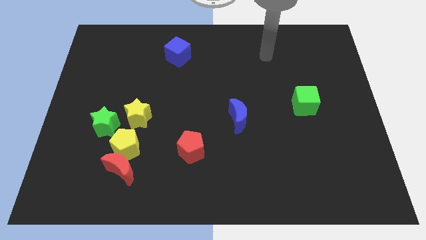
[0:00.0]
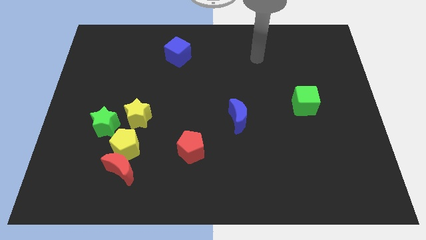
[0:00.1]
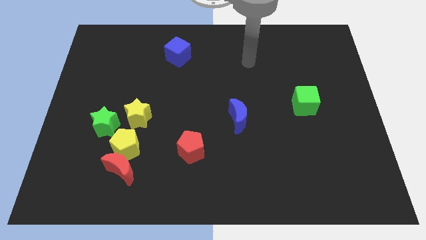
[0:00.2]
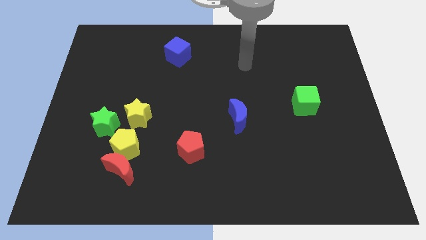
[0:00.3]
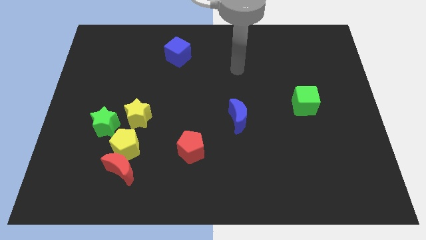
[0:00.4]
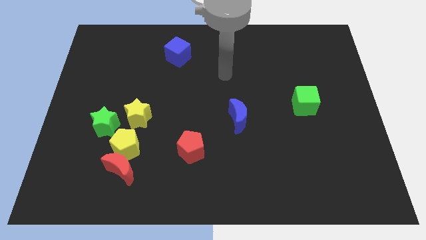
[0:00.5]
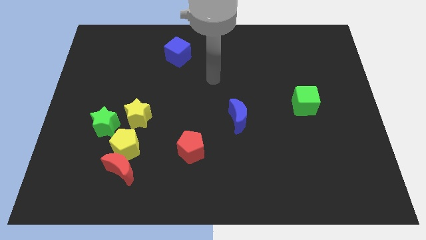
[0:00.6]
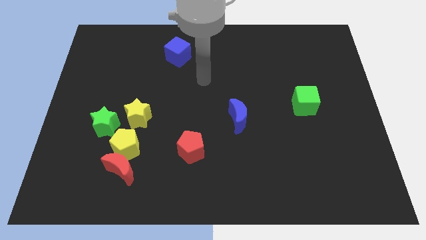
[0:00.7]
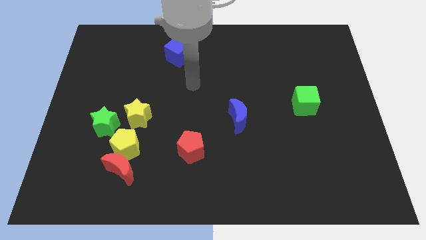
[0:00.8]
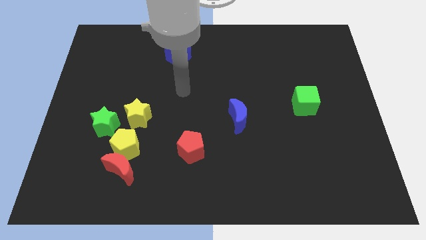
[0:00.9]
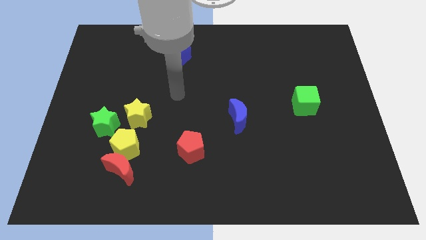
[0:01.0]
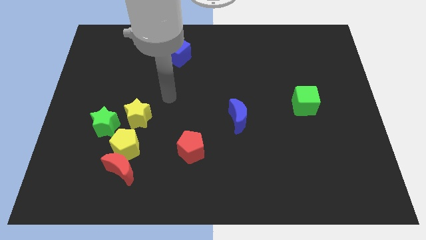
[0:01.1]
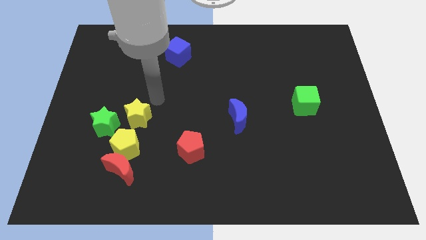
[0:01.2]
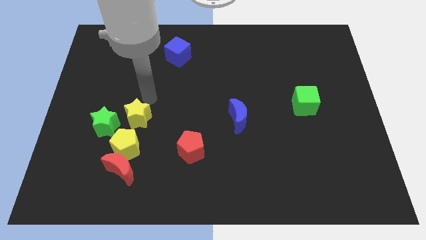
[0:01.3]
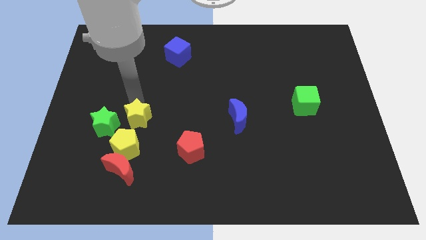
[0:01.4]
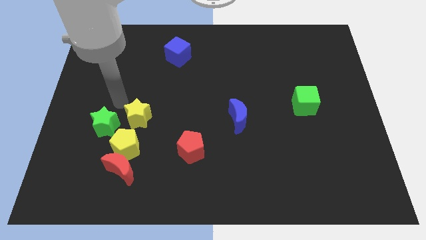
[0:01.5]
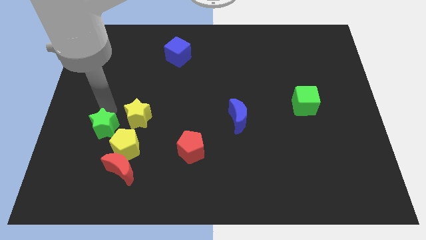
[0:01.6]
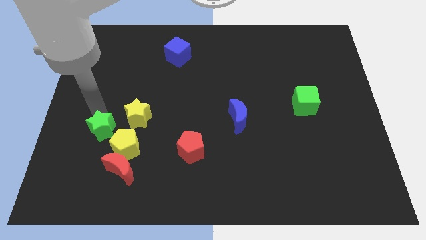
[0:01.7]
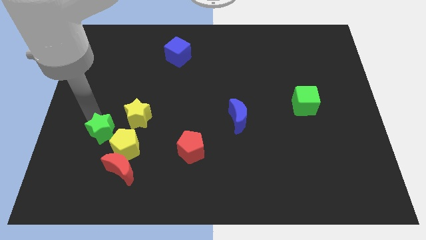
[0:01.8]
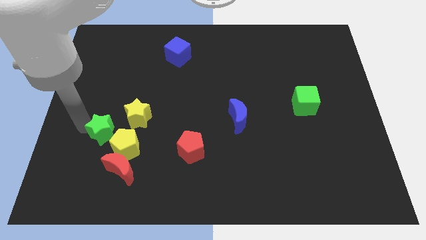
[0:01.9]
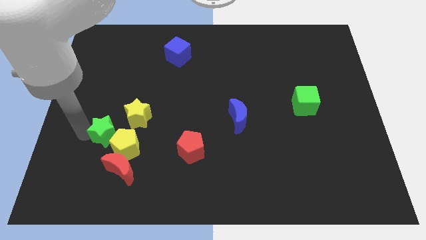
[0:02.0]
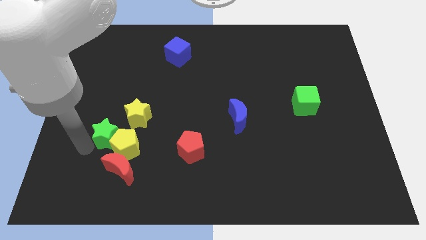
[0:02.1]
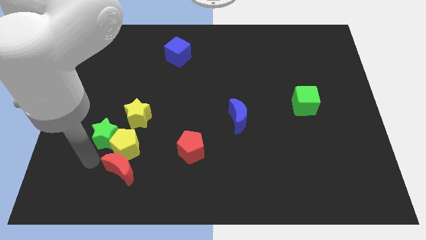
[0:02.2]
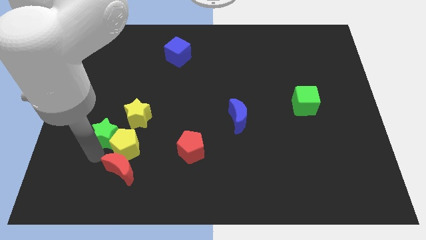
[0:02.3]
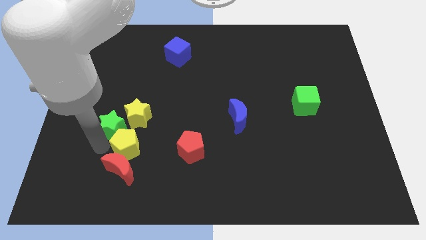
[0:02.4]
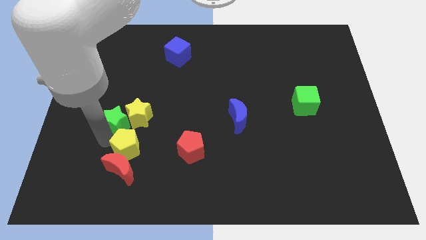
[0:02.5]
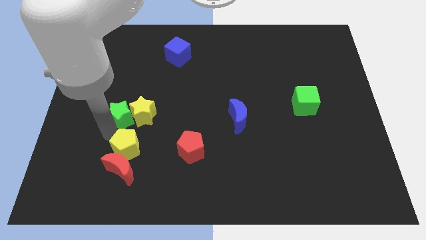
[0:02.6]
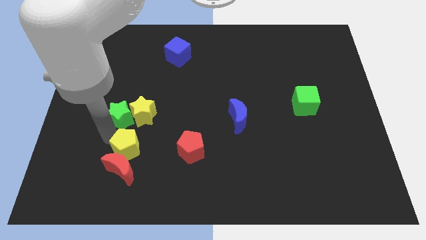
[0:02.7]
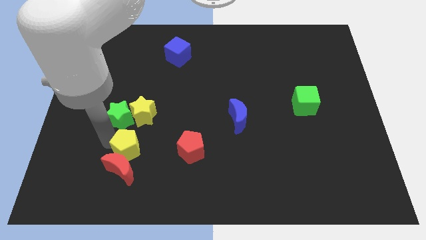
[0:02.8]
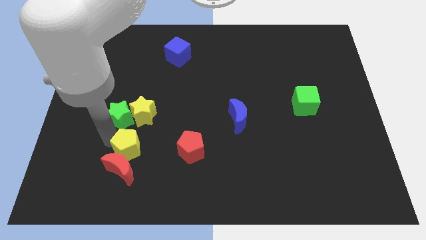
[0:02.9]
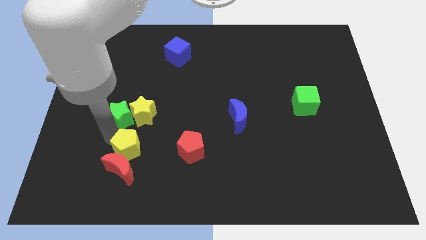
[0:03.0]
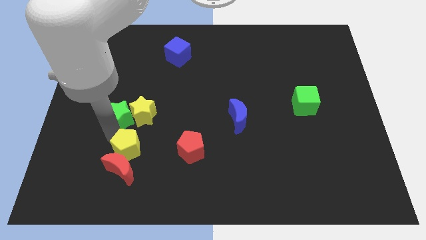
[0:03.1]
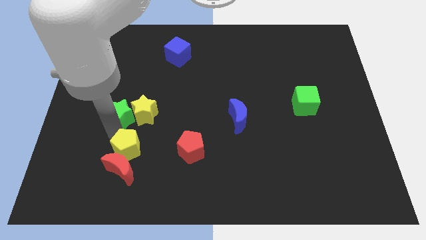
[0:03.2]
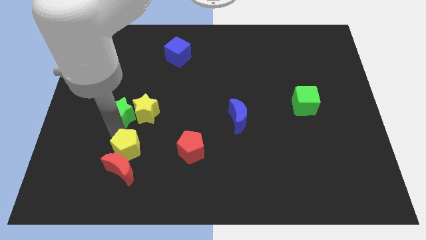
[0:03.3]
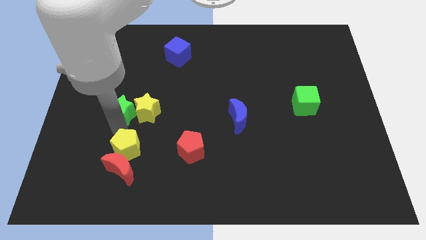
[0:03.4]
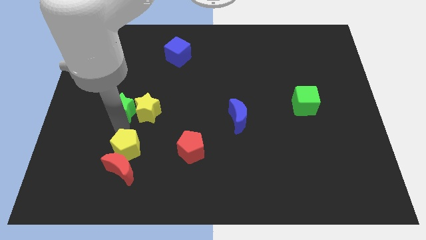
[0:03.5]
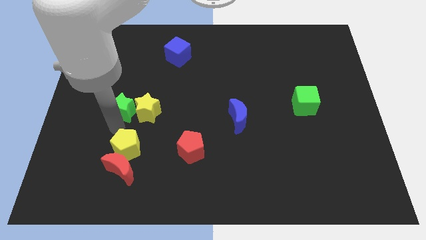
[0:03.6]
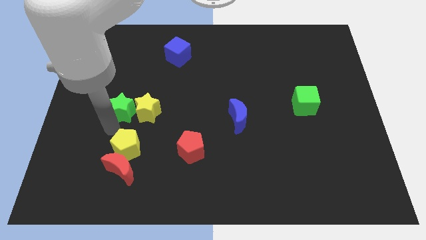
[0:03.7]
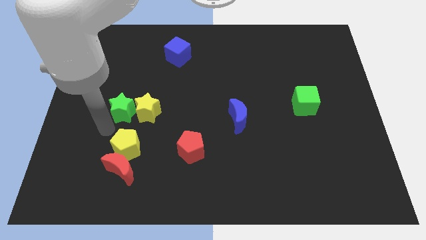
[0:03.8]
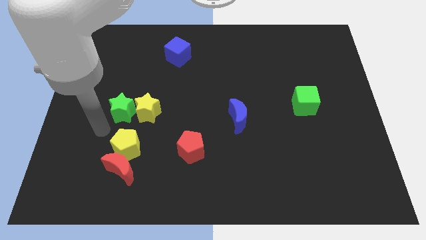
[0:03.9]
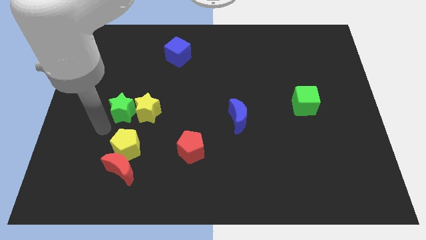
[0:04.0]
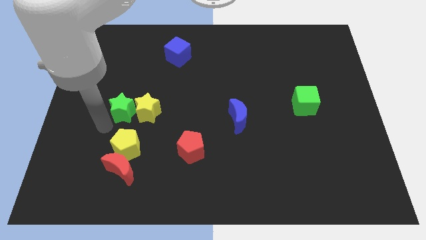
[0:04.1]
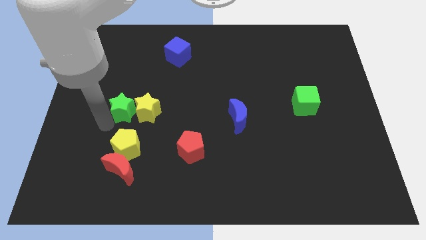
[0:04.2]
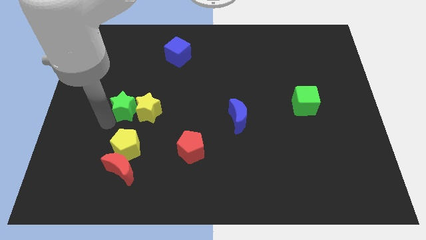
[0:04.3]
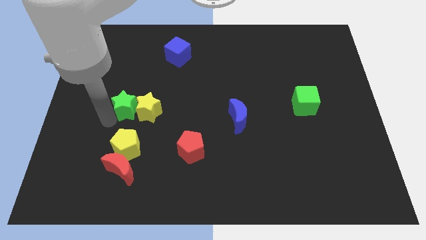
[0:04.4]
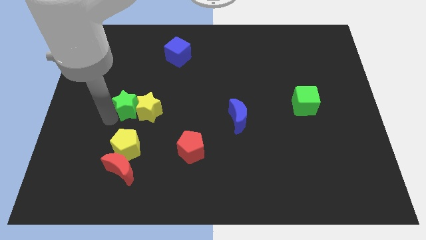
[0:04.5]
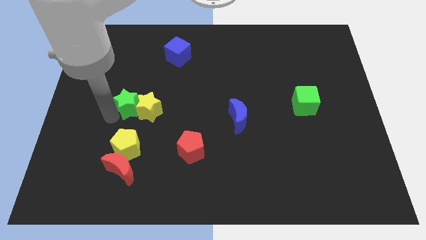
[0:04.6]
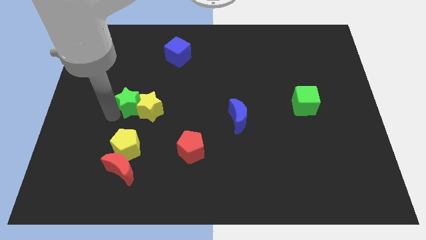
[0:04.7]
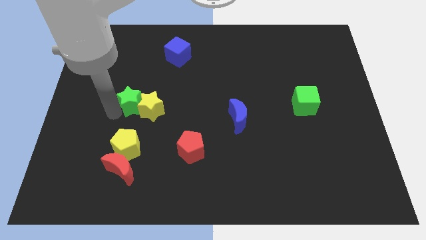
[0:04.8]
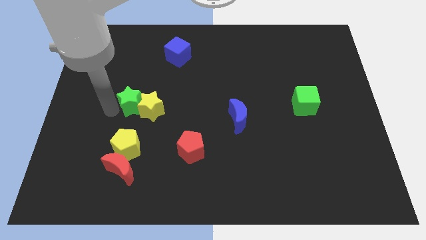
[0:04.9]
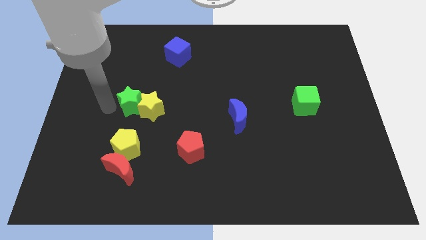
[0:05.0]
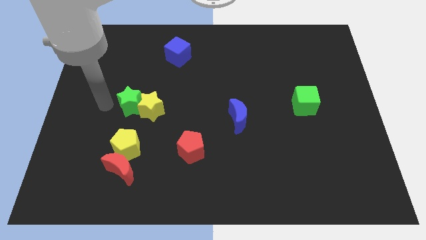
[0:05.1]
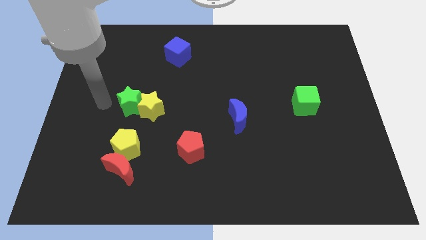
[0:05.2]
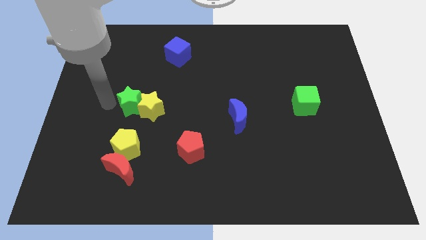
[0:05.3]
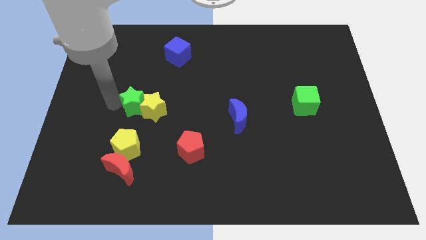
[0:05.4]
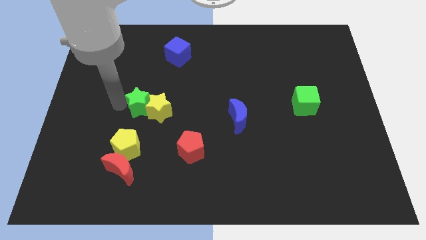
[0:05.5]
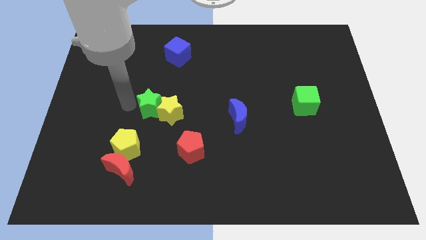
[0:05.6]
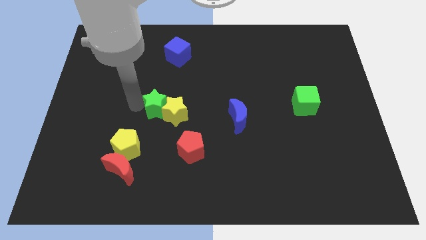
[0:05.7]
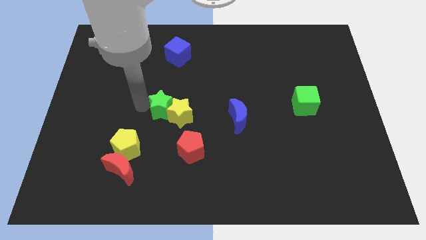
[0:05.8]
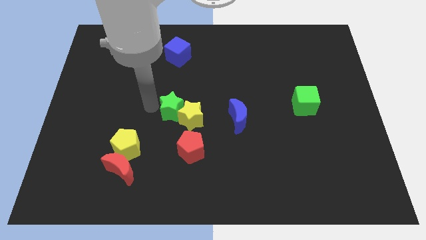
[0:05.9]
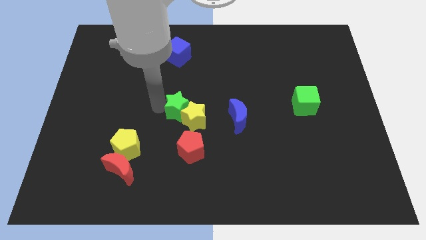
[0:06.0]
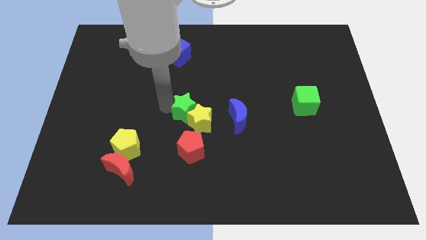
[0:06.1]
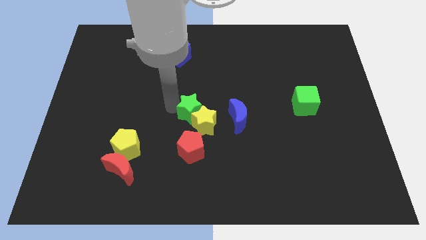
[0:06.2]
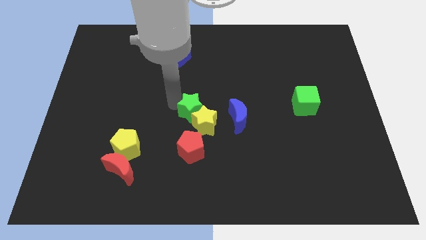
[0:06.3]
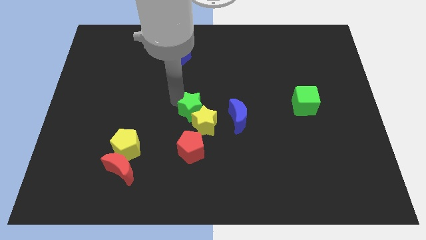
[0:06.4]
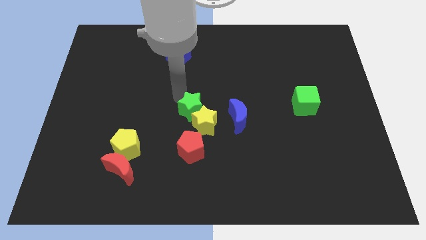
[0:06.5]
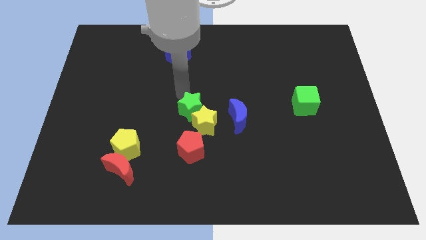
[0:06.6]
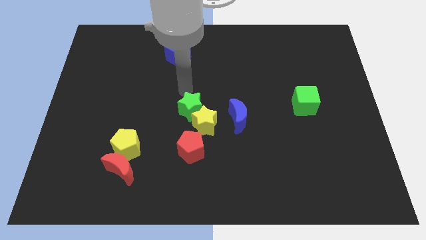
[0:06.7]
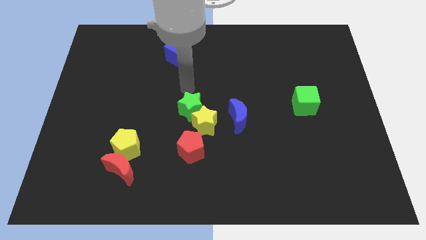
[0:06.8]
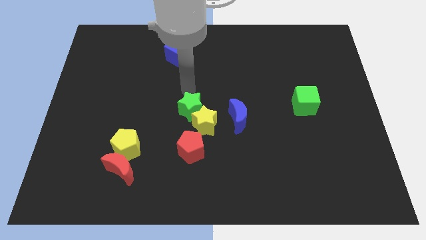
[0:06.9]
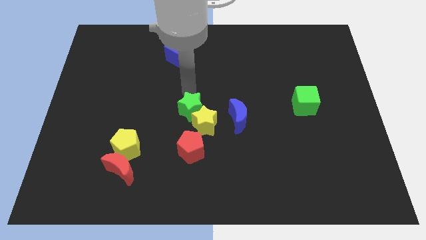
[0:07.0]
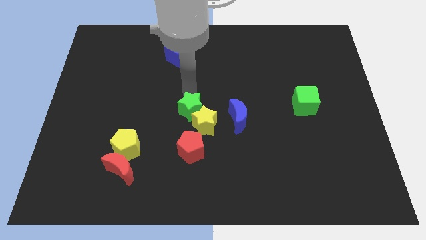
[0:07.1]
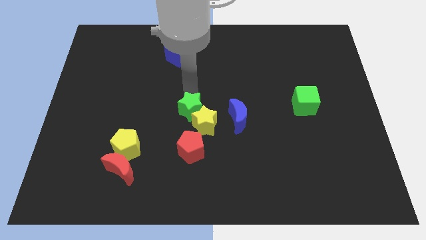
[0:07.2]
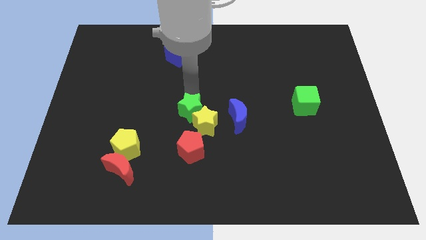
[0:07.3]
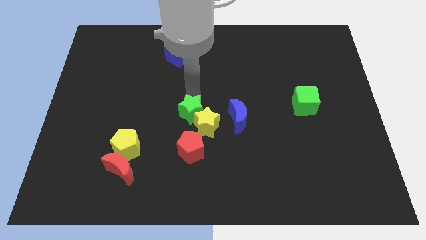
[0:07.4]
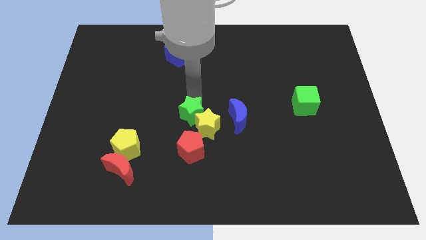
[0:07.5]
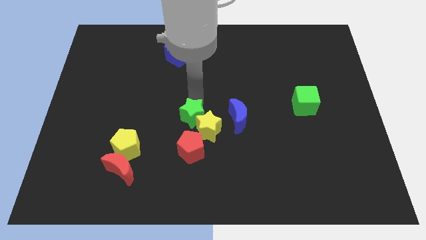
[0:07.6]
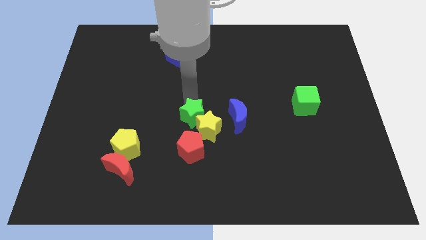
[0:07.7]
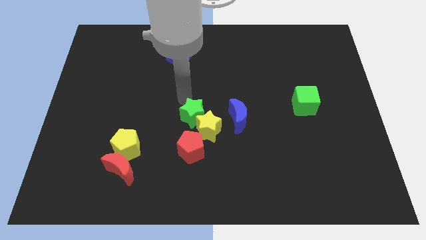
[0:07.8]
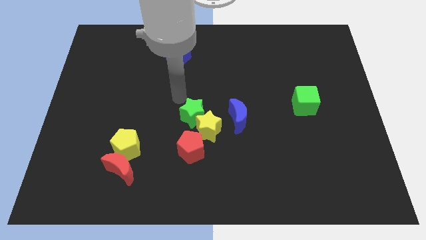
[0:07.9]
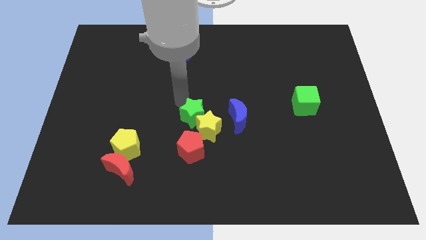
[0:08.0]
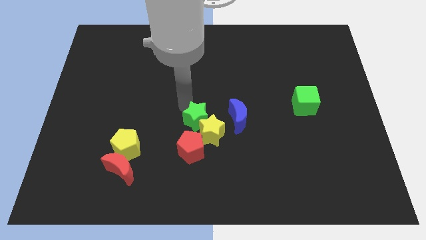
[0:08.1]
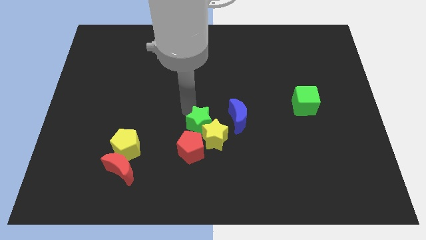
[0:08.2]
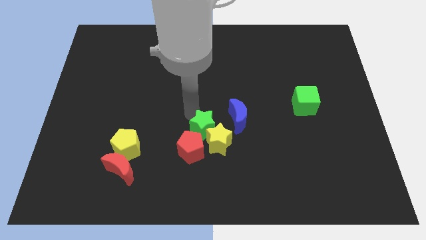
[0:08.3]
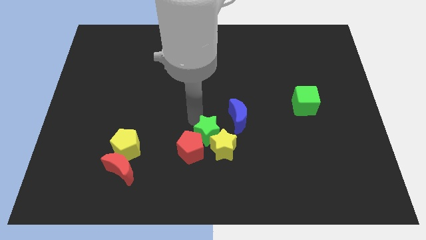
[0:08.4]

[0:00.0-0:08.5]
move the green star just right of the red pentagon
